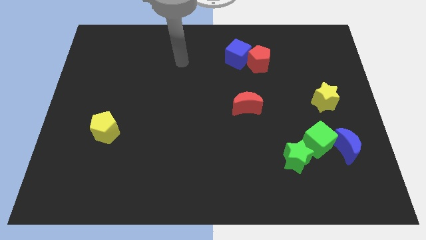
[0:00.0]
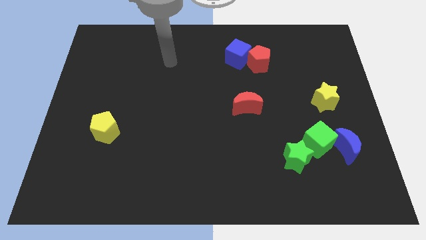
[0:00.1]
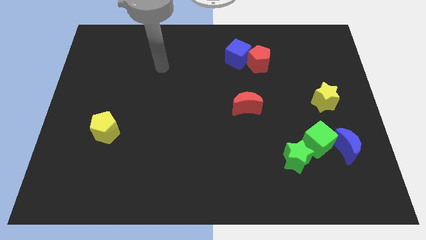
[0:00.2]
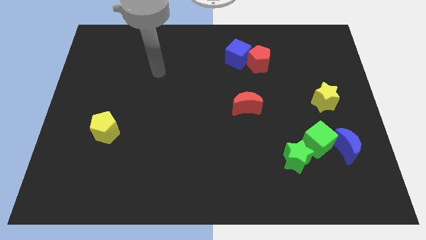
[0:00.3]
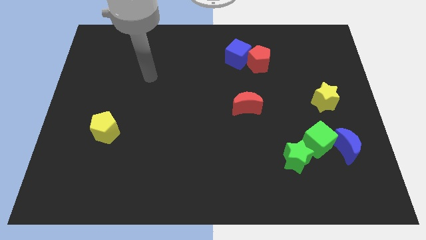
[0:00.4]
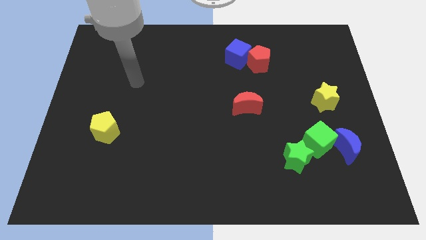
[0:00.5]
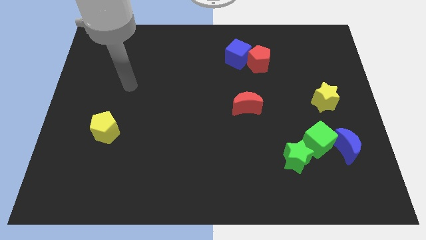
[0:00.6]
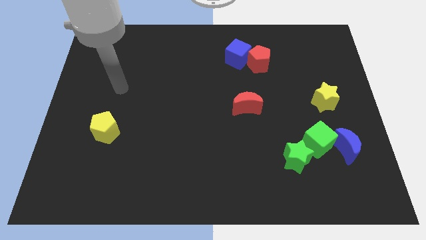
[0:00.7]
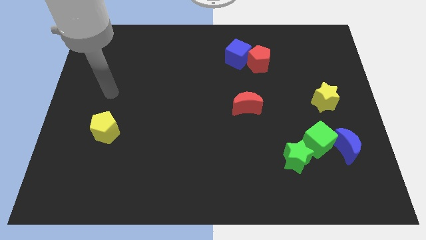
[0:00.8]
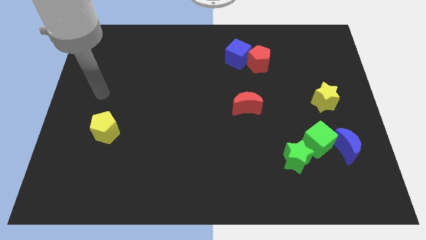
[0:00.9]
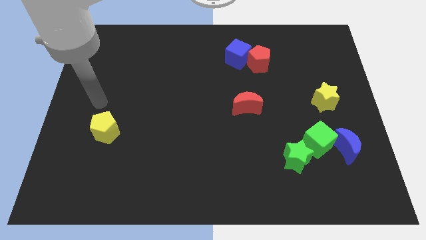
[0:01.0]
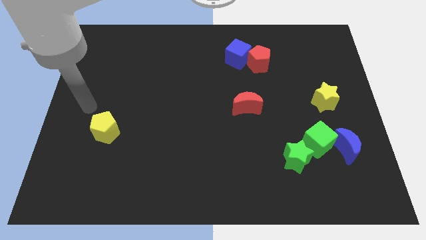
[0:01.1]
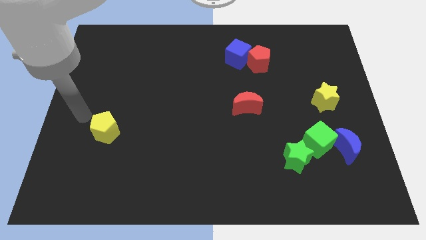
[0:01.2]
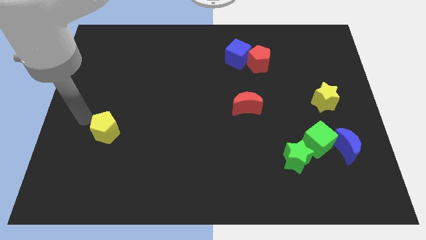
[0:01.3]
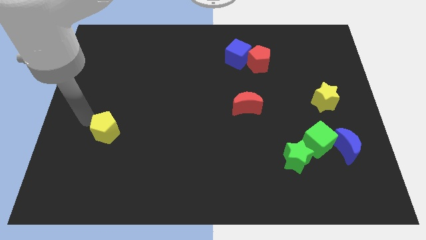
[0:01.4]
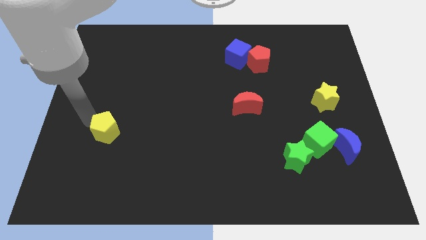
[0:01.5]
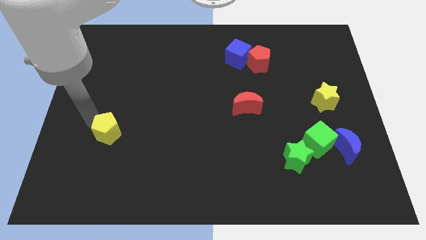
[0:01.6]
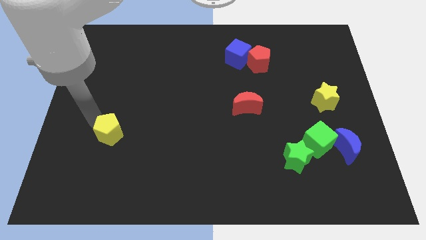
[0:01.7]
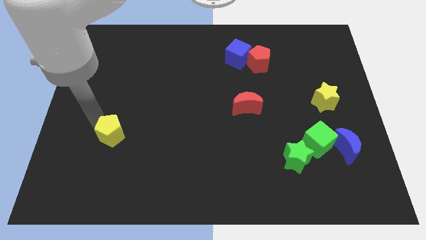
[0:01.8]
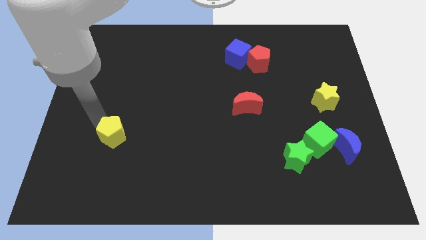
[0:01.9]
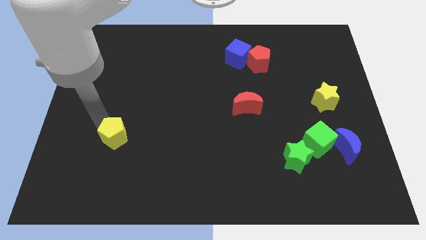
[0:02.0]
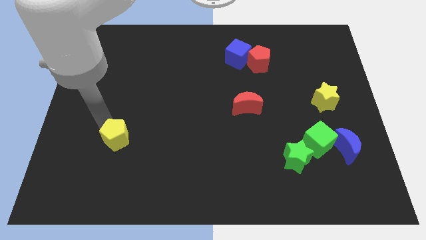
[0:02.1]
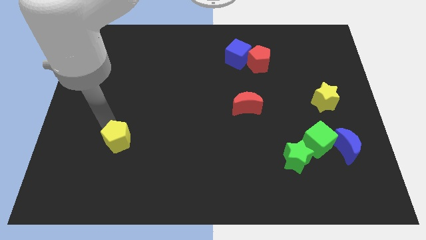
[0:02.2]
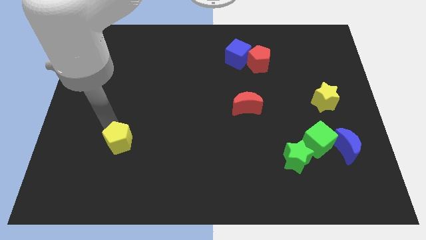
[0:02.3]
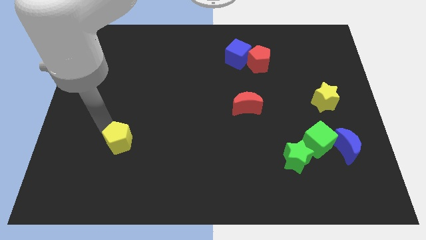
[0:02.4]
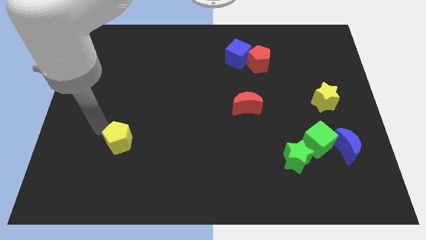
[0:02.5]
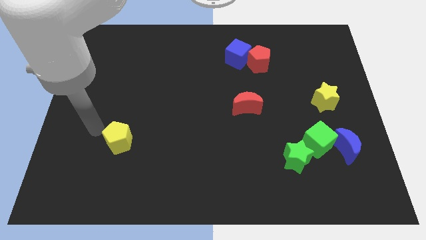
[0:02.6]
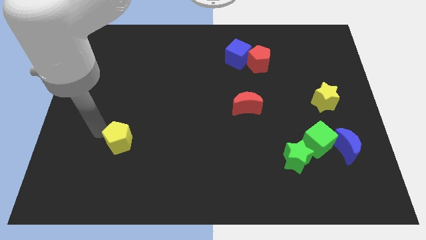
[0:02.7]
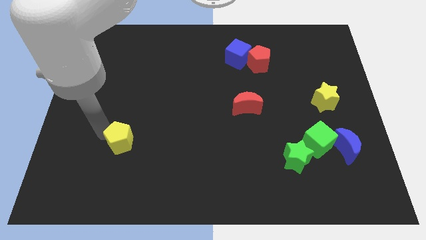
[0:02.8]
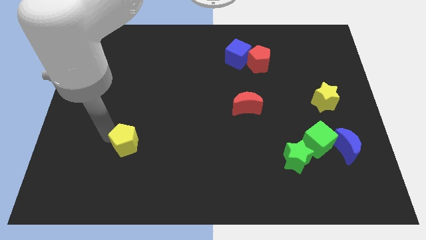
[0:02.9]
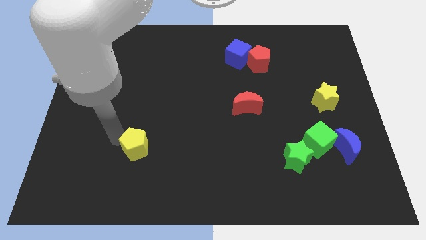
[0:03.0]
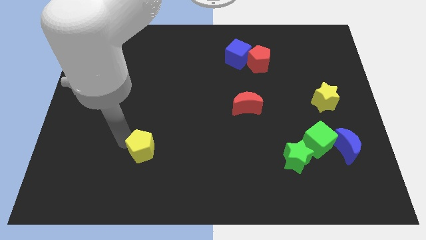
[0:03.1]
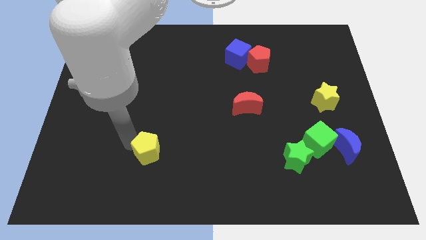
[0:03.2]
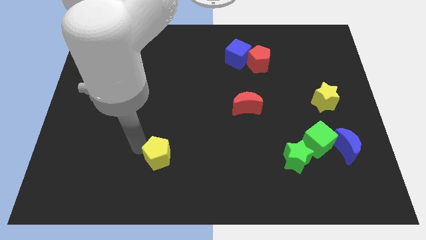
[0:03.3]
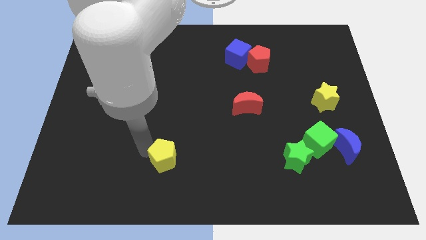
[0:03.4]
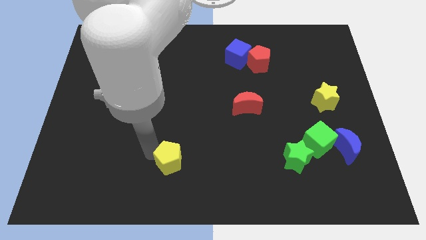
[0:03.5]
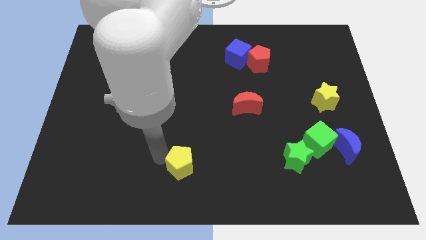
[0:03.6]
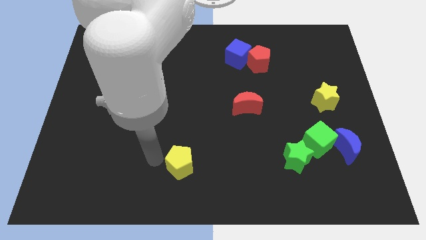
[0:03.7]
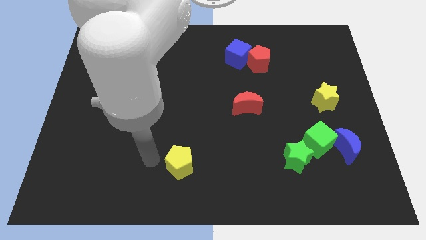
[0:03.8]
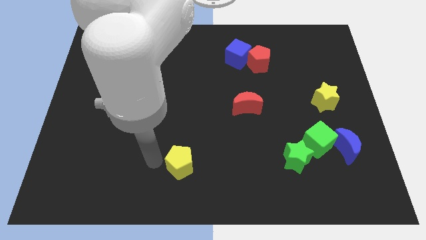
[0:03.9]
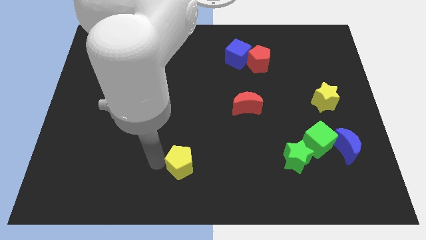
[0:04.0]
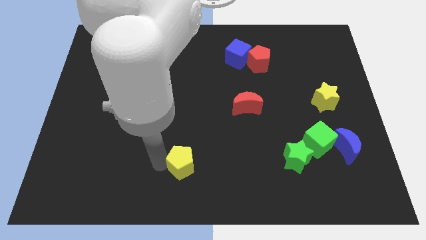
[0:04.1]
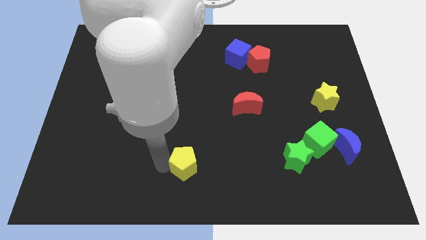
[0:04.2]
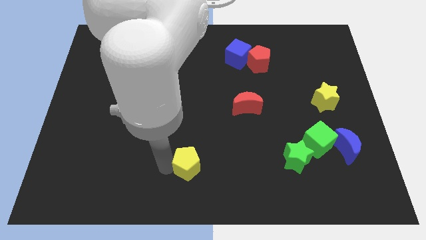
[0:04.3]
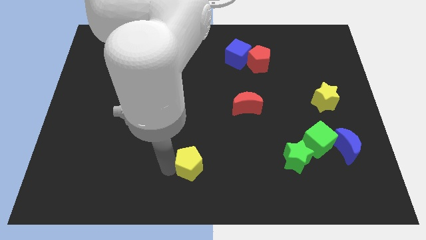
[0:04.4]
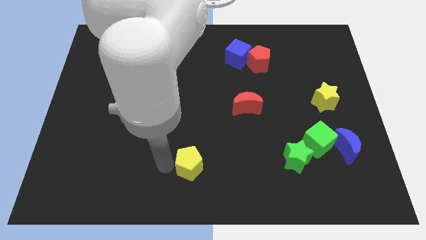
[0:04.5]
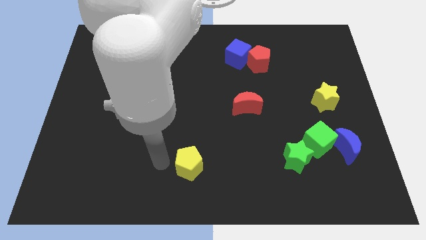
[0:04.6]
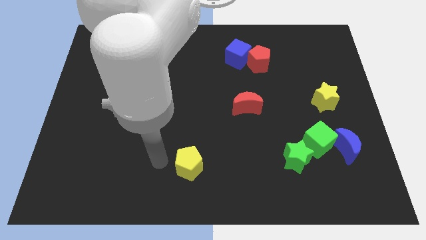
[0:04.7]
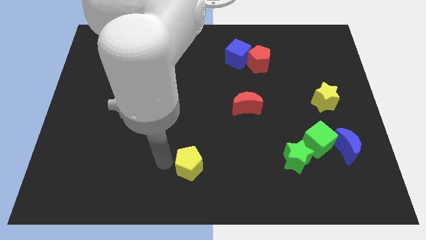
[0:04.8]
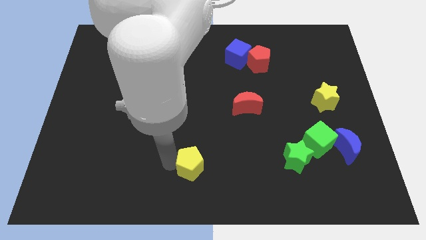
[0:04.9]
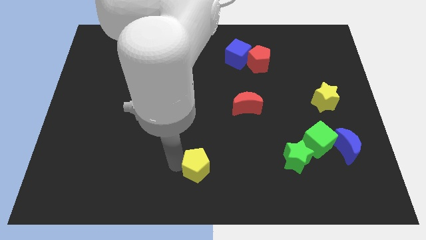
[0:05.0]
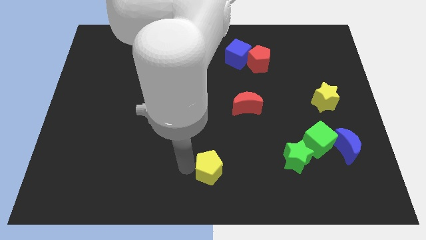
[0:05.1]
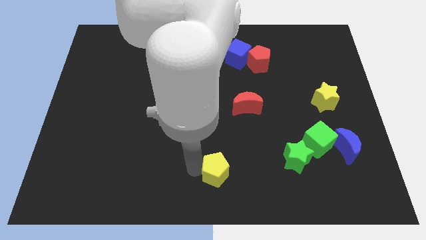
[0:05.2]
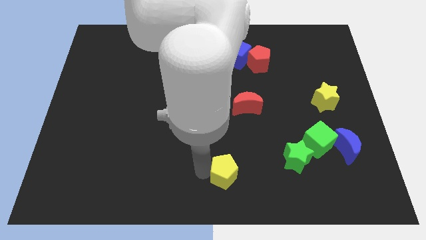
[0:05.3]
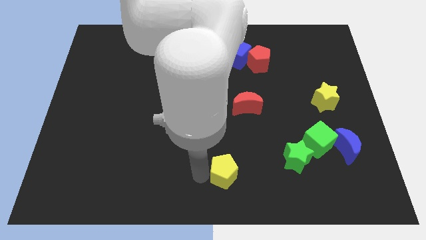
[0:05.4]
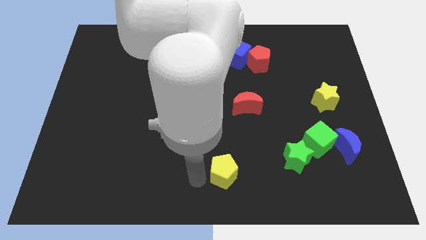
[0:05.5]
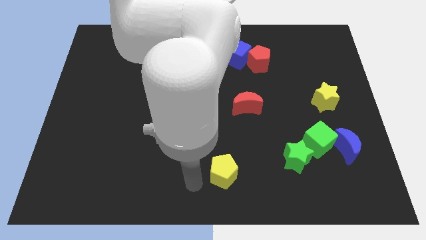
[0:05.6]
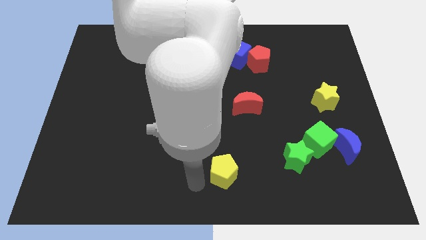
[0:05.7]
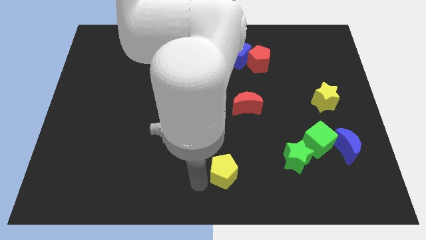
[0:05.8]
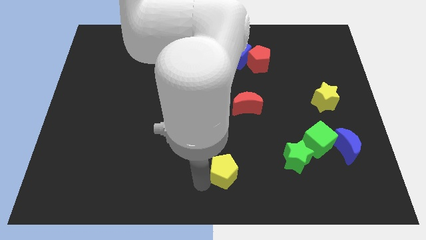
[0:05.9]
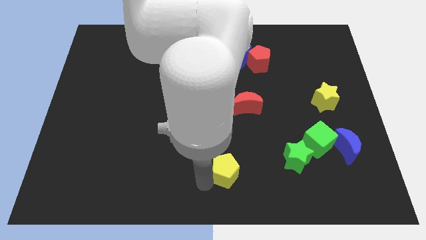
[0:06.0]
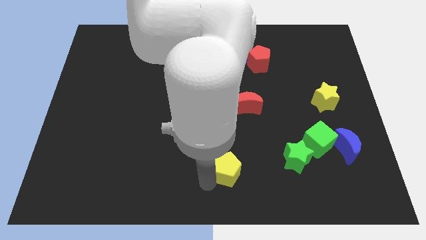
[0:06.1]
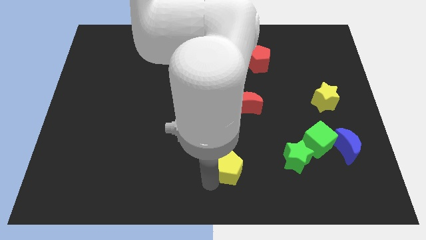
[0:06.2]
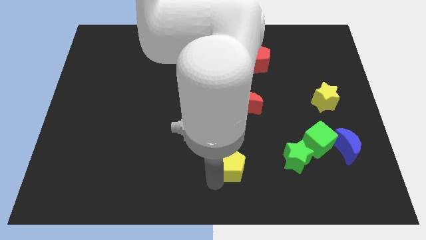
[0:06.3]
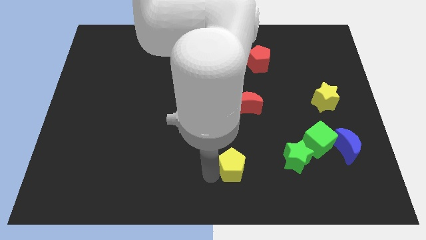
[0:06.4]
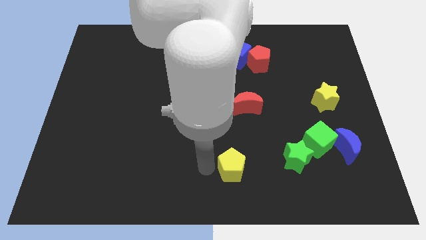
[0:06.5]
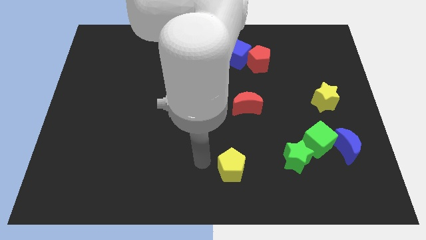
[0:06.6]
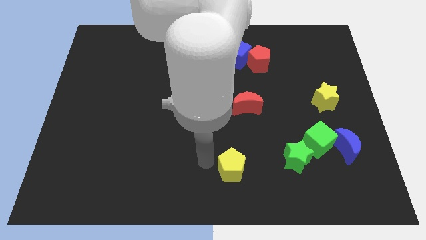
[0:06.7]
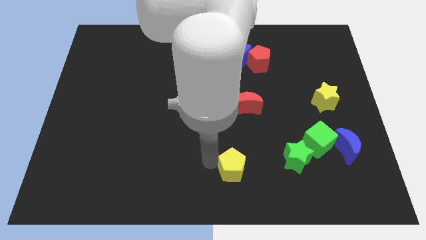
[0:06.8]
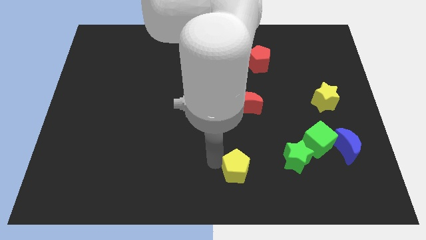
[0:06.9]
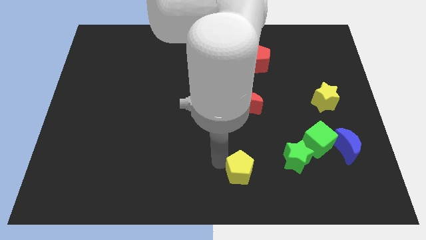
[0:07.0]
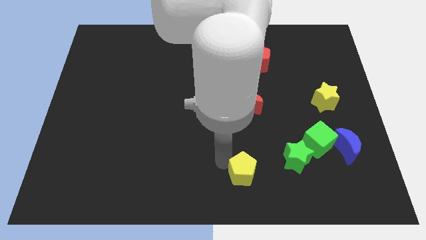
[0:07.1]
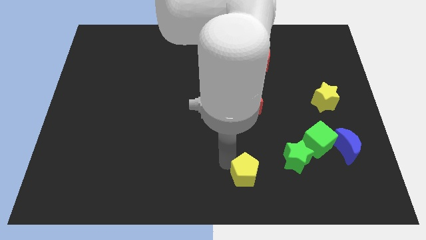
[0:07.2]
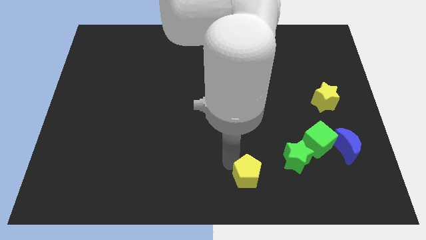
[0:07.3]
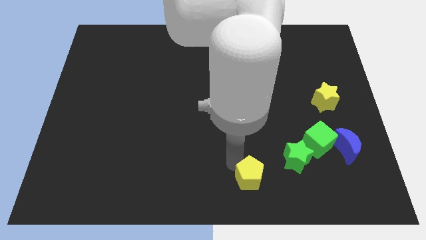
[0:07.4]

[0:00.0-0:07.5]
push the yellow pentagon diagonally down and to the left of the green star
